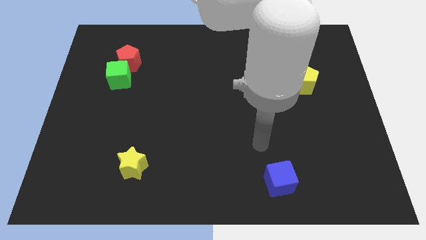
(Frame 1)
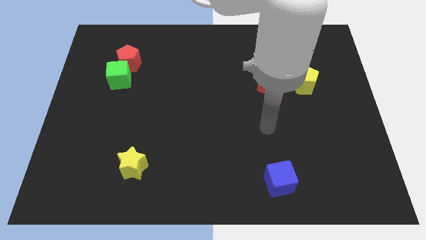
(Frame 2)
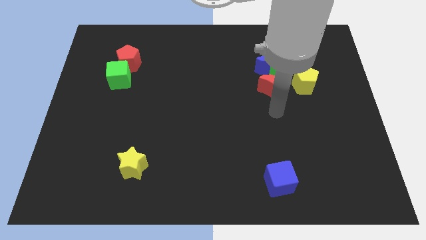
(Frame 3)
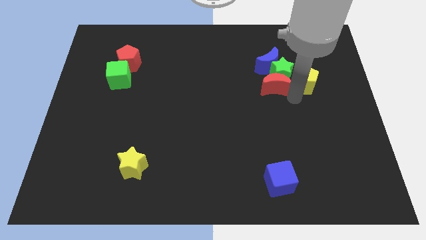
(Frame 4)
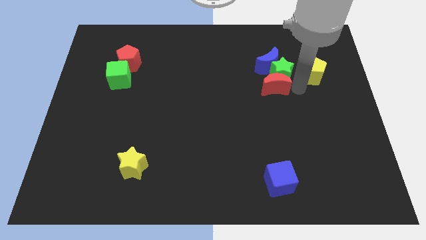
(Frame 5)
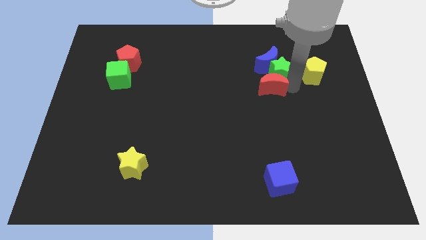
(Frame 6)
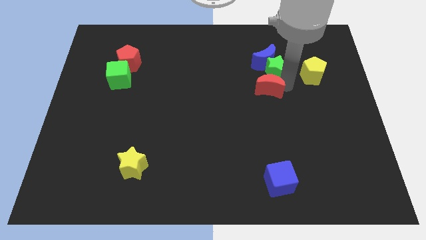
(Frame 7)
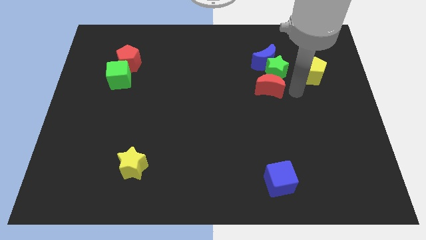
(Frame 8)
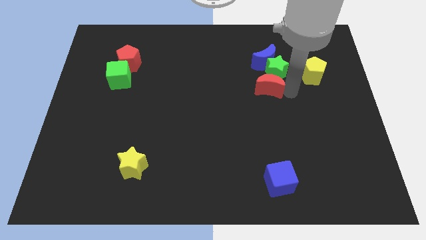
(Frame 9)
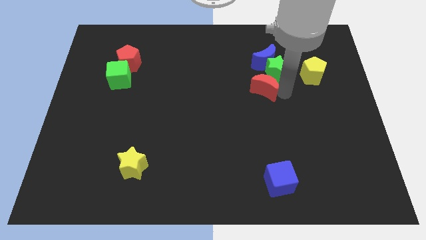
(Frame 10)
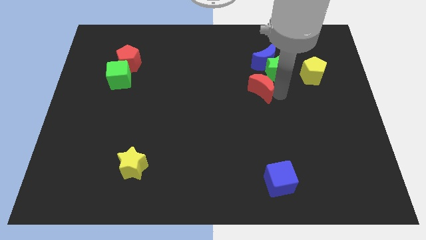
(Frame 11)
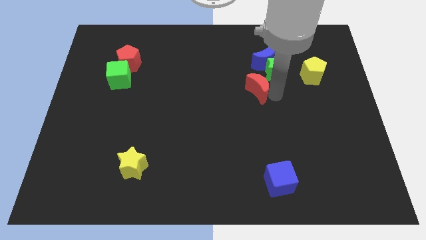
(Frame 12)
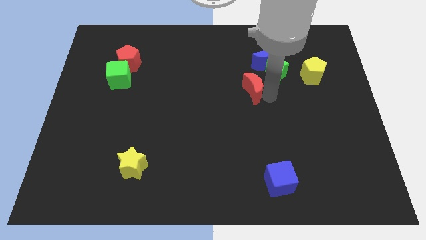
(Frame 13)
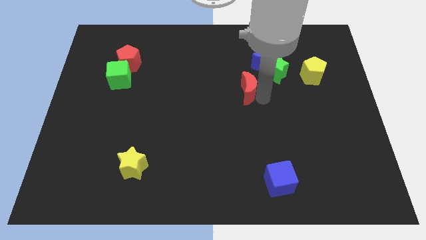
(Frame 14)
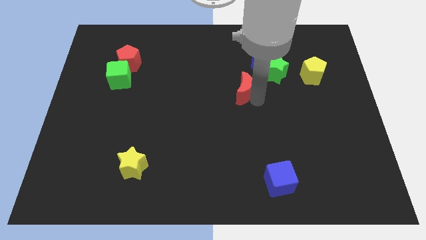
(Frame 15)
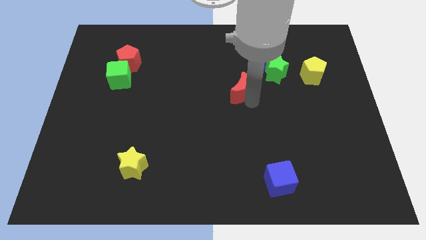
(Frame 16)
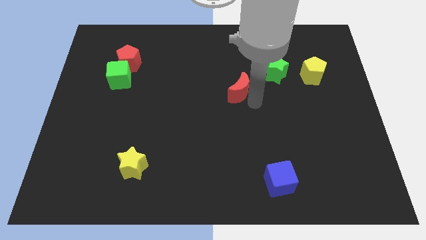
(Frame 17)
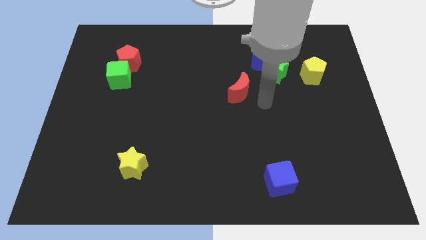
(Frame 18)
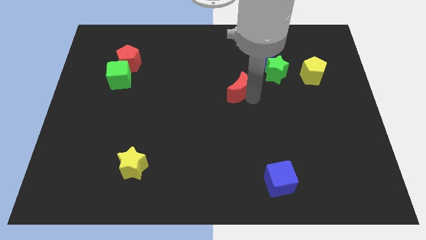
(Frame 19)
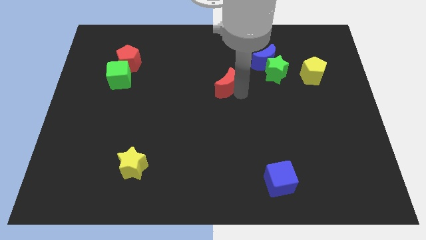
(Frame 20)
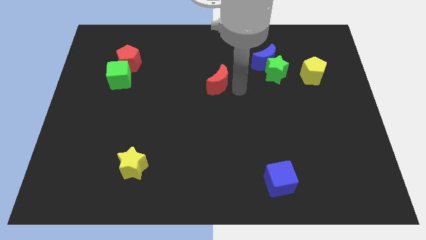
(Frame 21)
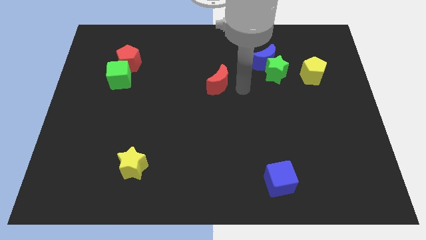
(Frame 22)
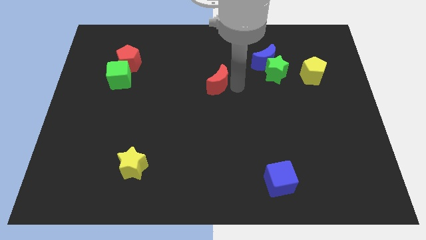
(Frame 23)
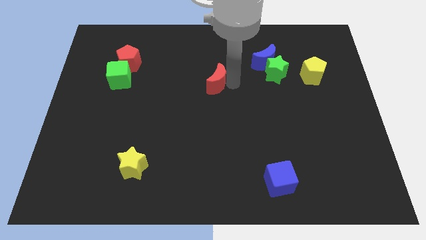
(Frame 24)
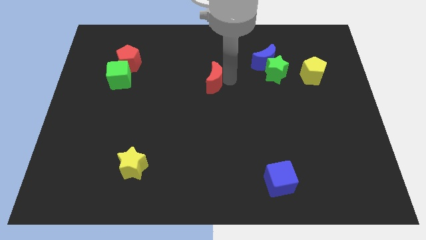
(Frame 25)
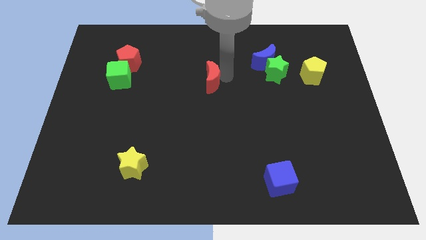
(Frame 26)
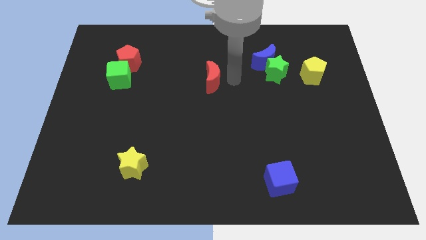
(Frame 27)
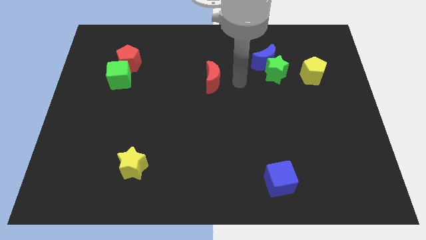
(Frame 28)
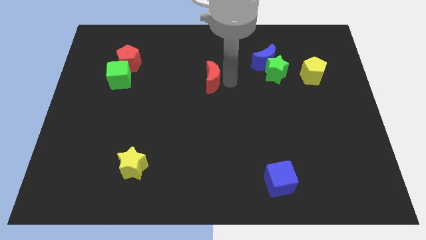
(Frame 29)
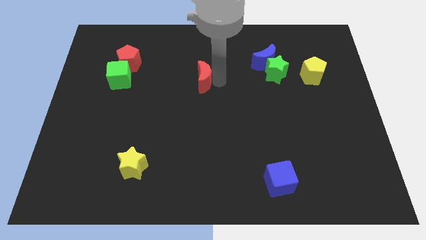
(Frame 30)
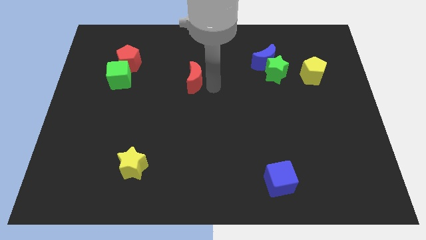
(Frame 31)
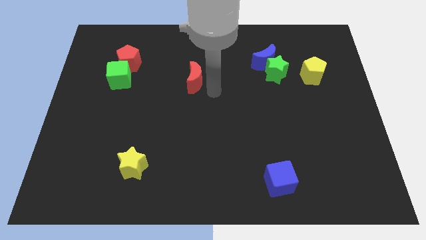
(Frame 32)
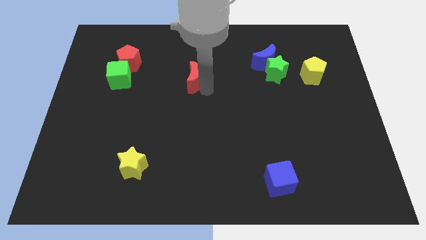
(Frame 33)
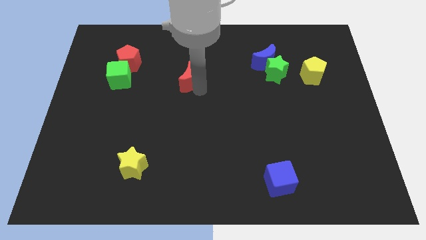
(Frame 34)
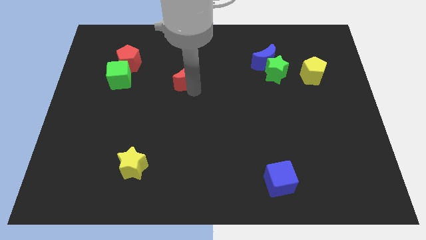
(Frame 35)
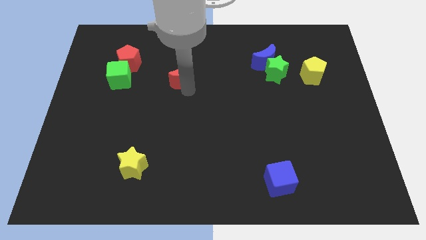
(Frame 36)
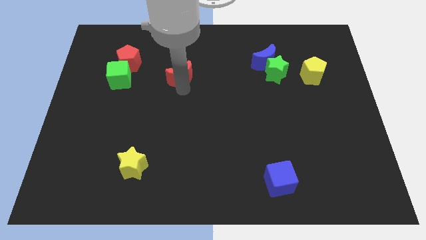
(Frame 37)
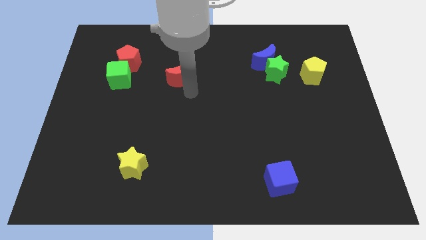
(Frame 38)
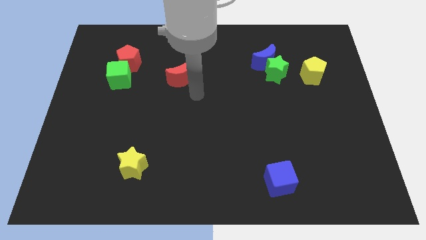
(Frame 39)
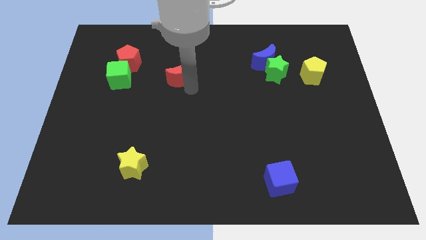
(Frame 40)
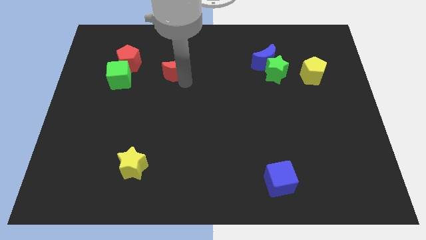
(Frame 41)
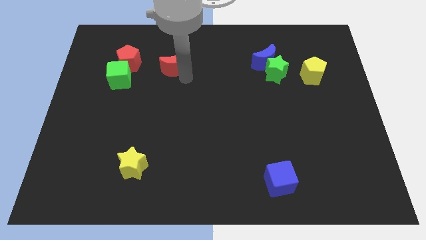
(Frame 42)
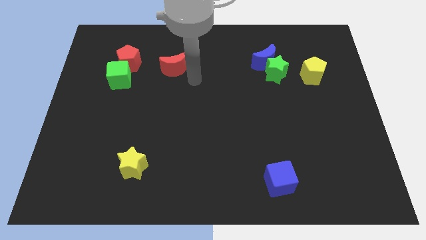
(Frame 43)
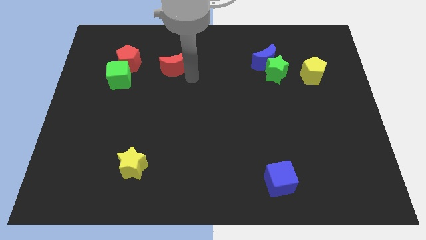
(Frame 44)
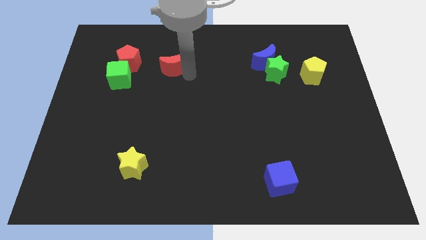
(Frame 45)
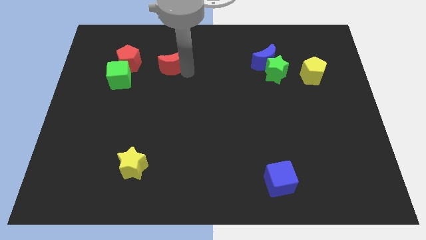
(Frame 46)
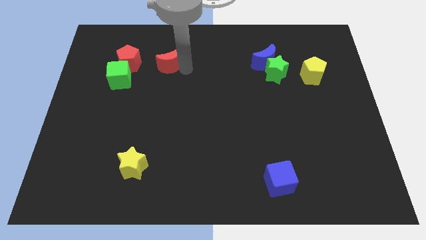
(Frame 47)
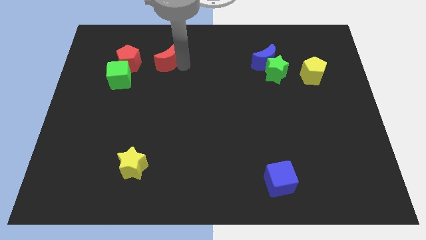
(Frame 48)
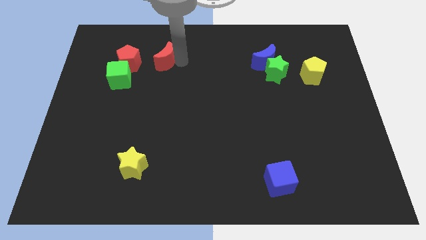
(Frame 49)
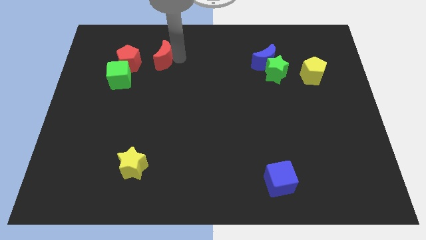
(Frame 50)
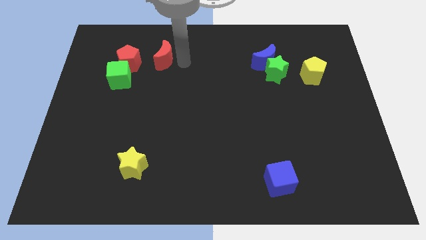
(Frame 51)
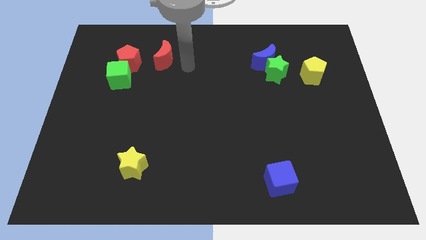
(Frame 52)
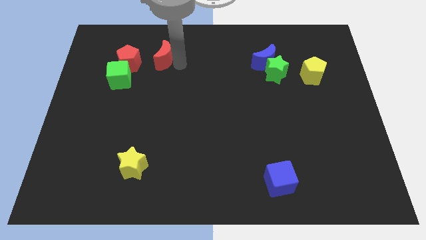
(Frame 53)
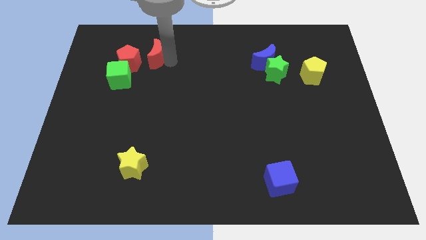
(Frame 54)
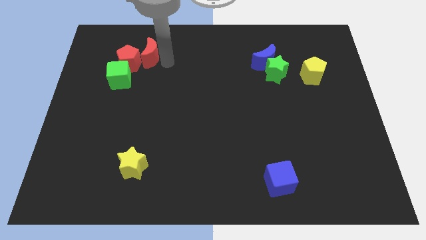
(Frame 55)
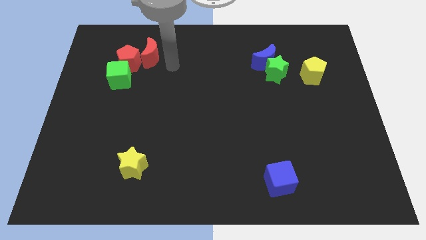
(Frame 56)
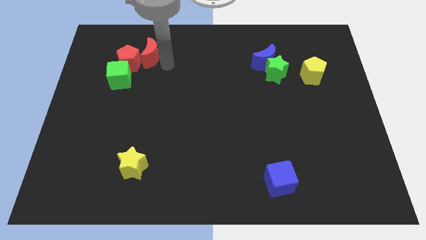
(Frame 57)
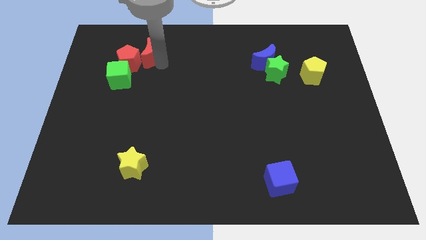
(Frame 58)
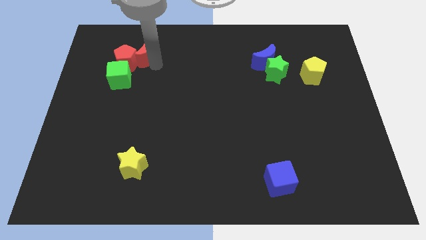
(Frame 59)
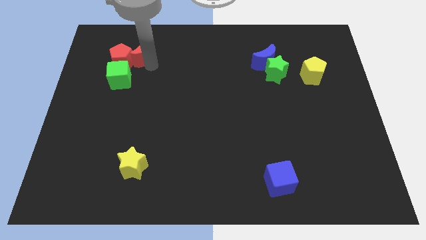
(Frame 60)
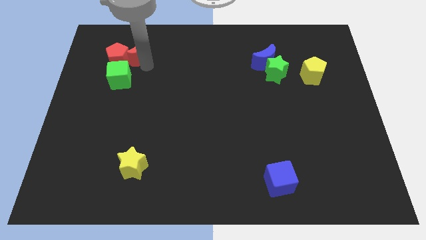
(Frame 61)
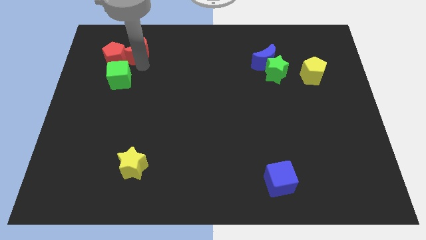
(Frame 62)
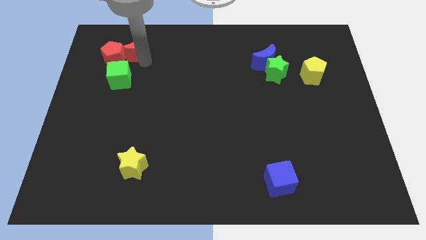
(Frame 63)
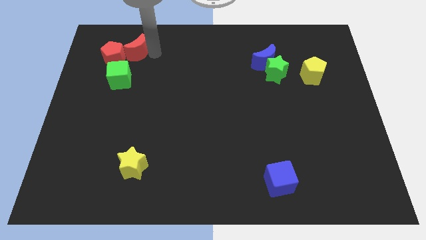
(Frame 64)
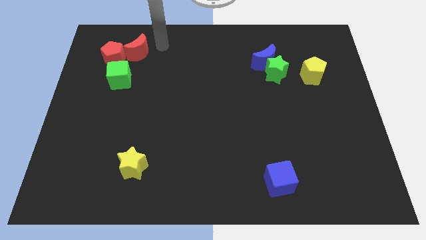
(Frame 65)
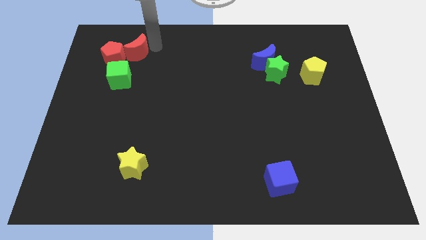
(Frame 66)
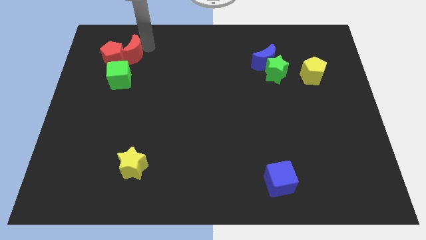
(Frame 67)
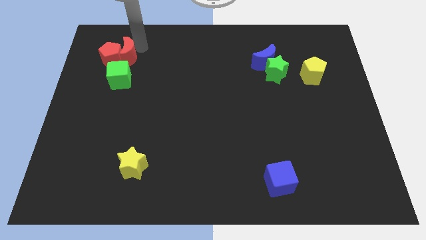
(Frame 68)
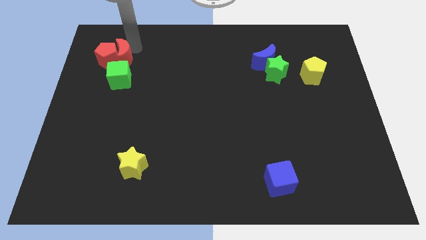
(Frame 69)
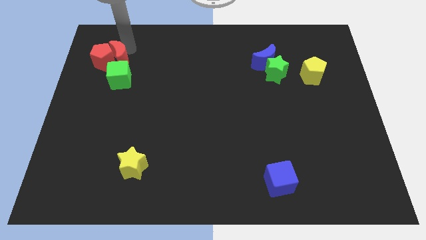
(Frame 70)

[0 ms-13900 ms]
move the red moon to the top left of the green cube

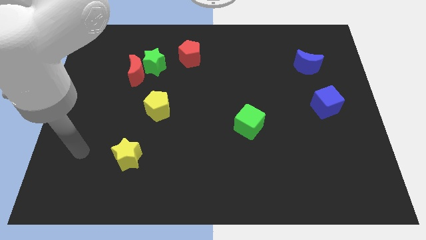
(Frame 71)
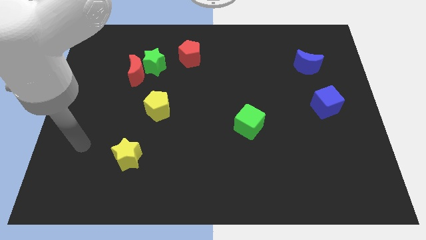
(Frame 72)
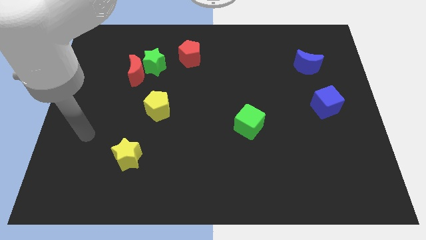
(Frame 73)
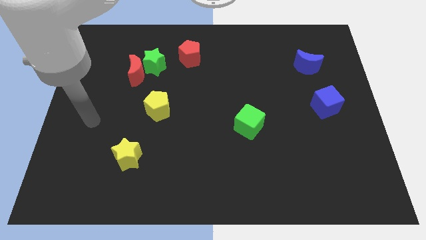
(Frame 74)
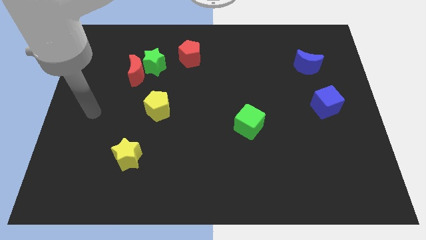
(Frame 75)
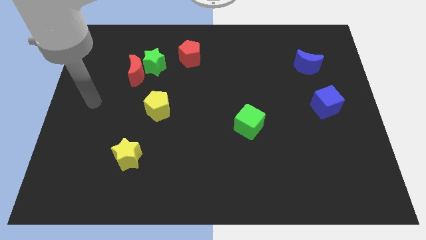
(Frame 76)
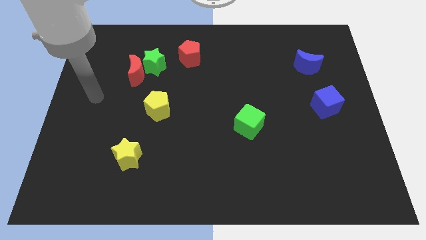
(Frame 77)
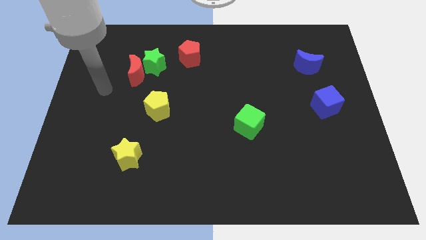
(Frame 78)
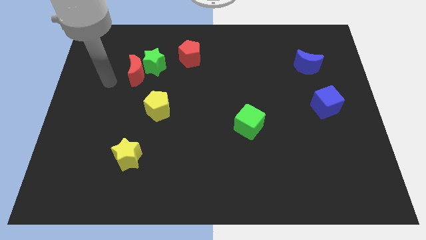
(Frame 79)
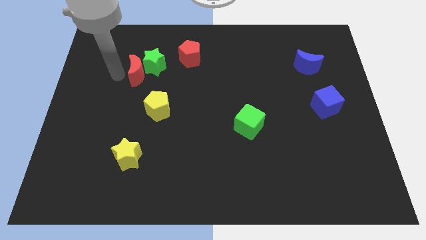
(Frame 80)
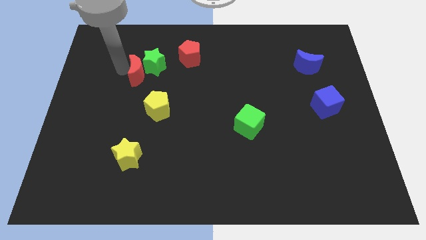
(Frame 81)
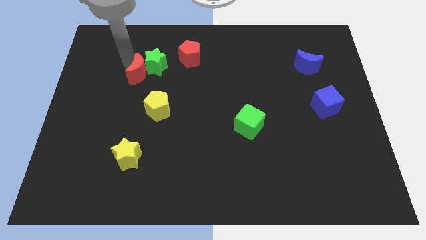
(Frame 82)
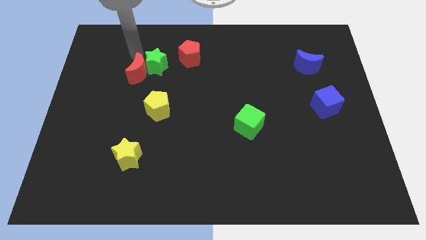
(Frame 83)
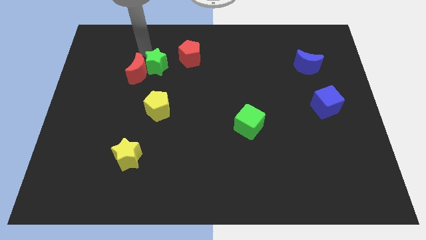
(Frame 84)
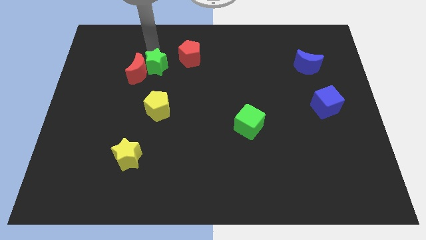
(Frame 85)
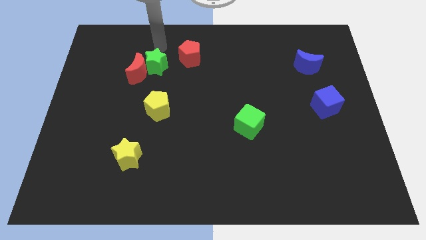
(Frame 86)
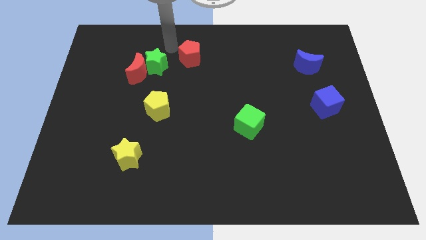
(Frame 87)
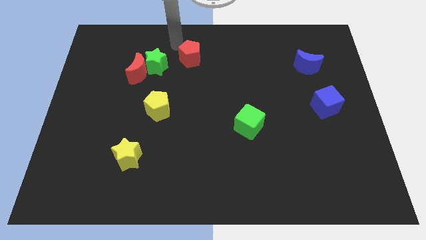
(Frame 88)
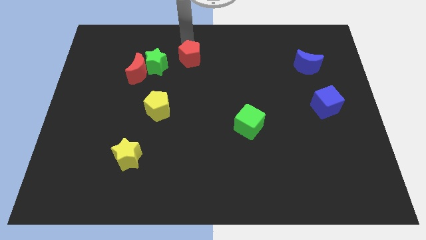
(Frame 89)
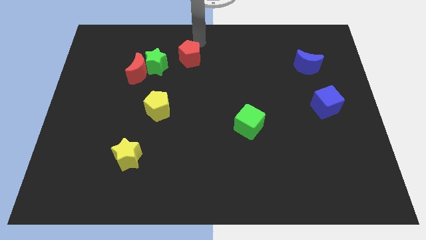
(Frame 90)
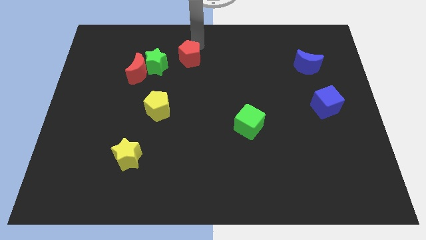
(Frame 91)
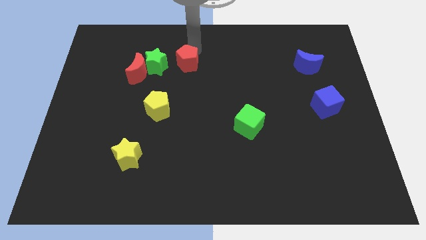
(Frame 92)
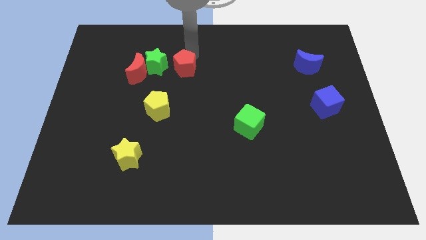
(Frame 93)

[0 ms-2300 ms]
move the red pentagon to the bottom right side of the green star
